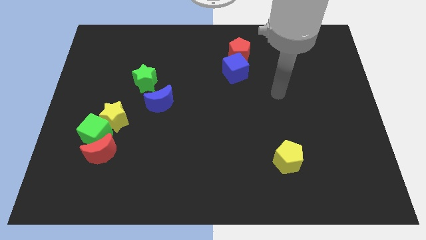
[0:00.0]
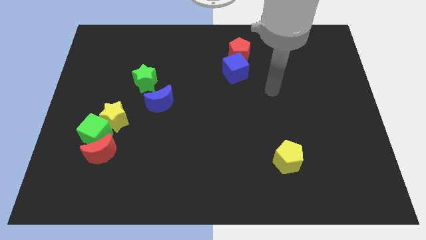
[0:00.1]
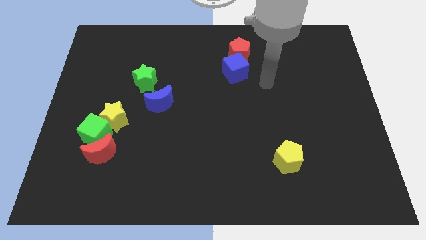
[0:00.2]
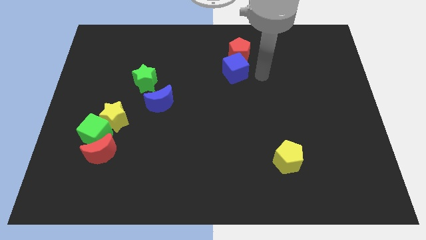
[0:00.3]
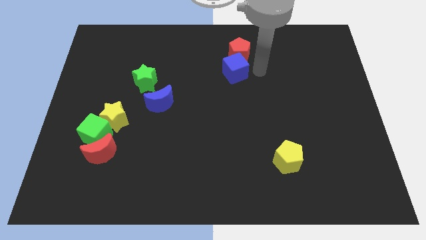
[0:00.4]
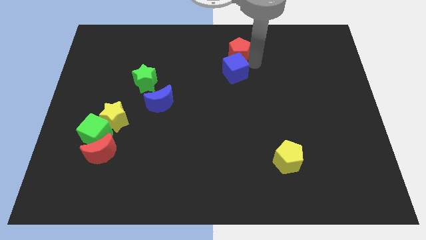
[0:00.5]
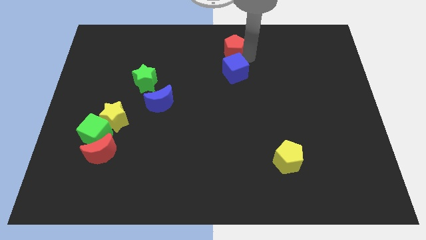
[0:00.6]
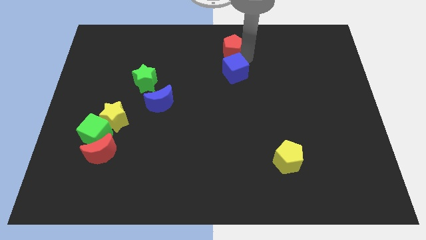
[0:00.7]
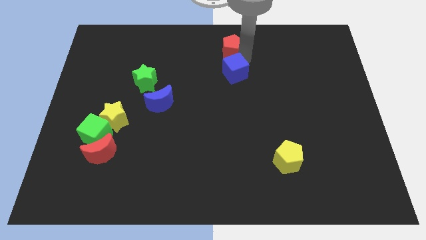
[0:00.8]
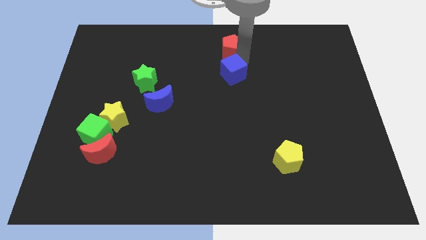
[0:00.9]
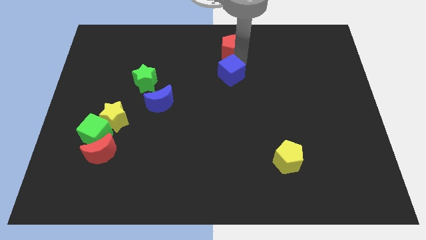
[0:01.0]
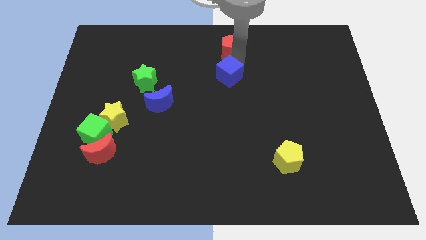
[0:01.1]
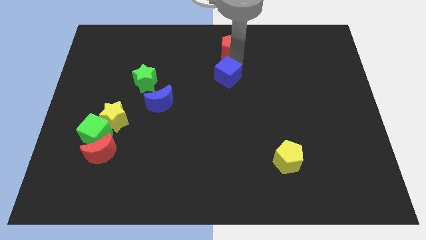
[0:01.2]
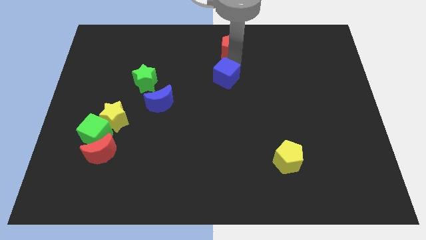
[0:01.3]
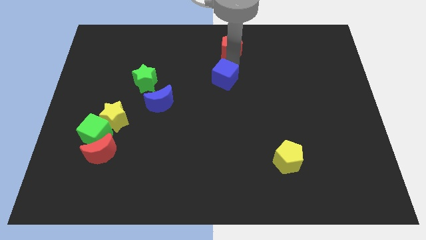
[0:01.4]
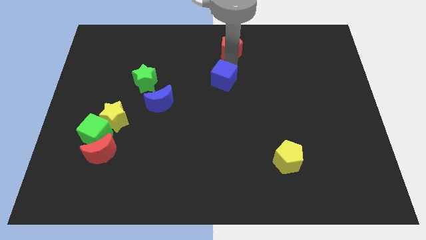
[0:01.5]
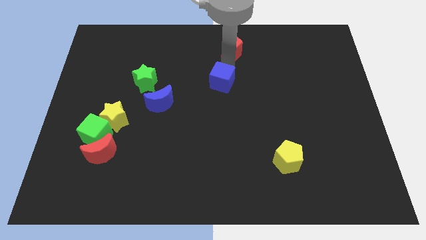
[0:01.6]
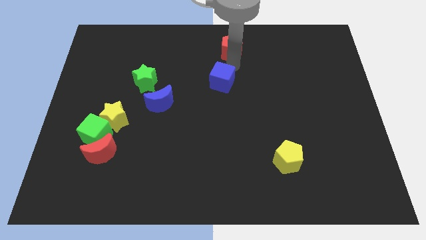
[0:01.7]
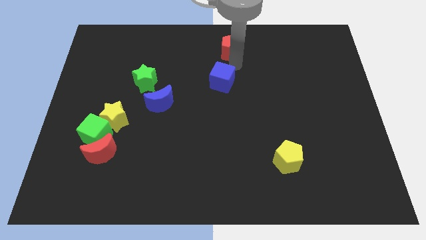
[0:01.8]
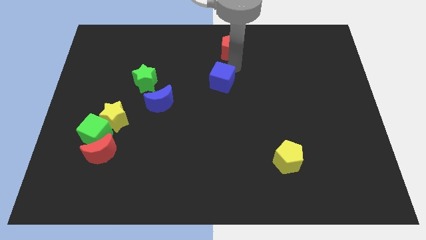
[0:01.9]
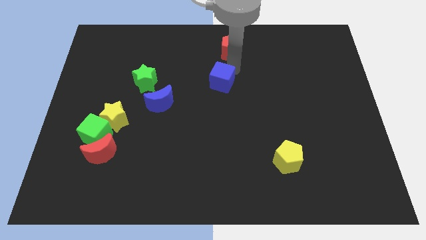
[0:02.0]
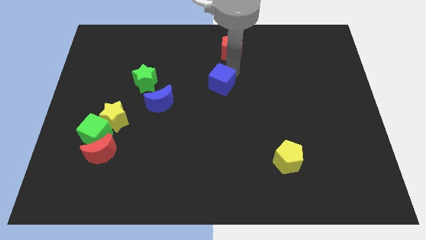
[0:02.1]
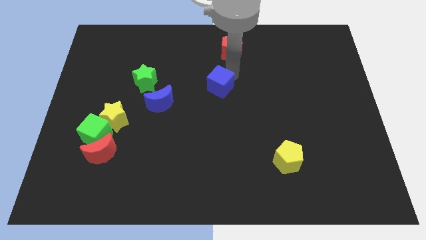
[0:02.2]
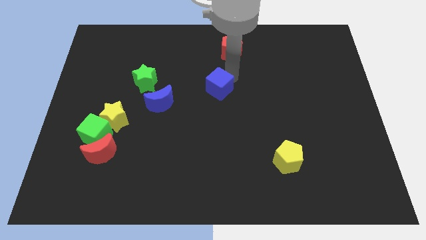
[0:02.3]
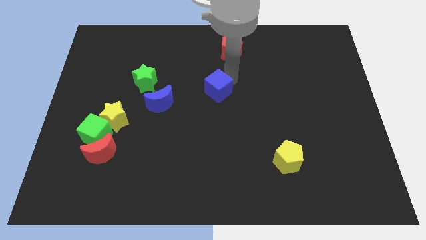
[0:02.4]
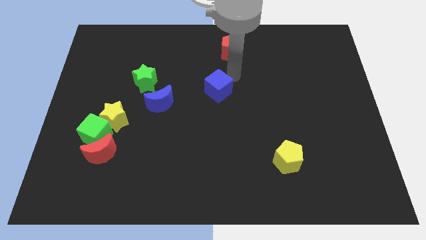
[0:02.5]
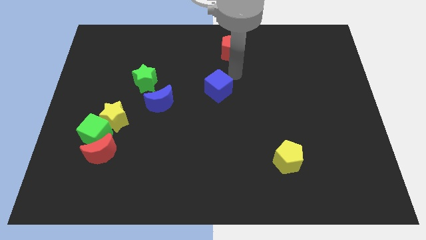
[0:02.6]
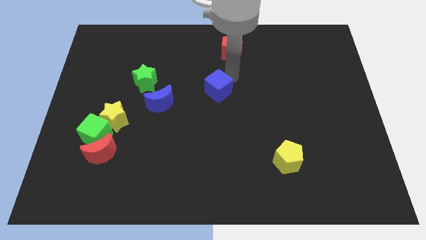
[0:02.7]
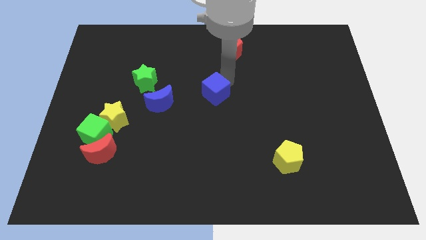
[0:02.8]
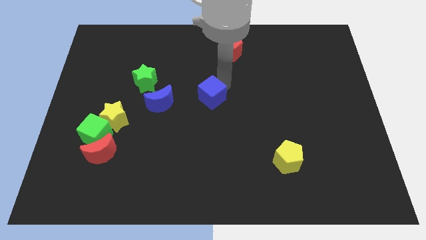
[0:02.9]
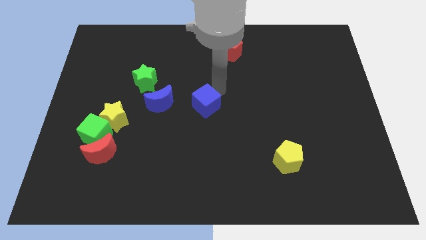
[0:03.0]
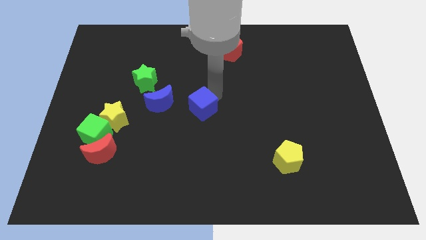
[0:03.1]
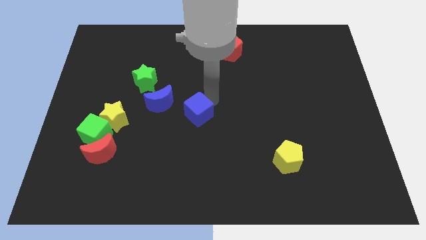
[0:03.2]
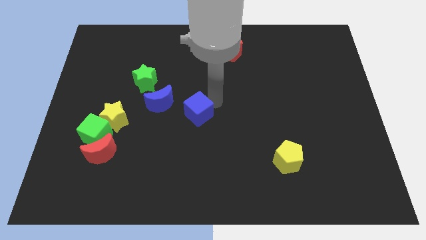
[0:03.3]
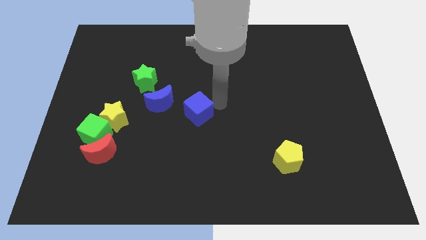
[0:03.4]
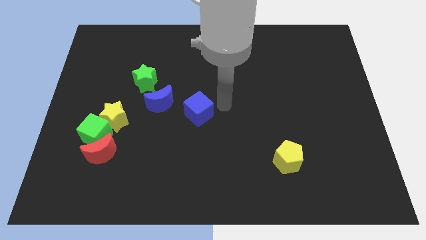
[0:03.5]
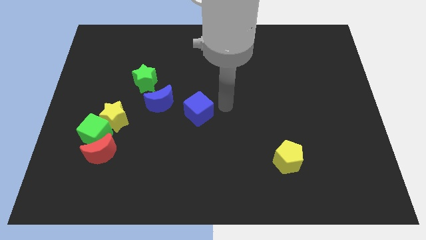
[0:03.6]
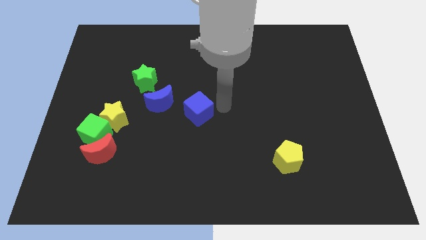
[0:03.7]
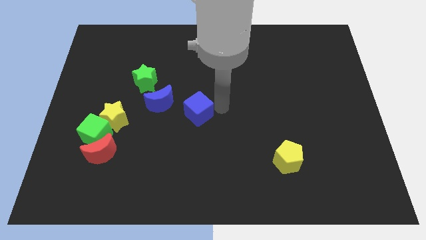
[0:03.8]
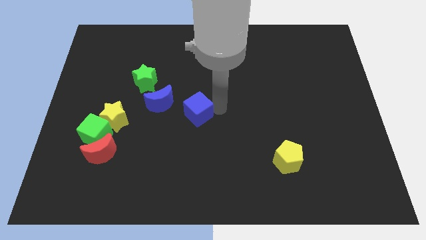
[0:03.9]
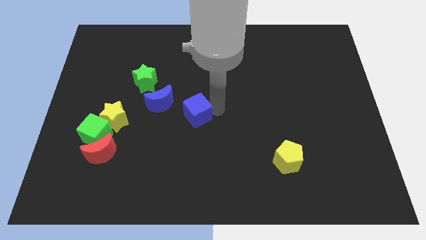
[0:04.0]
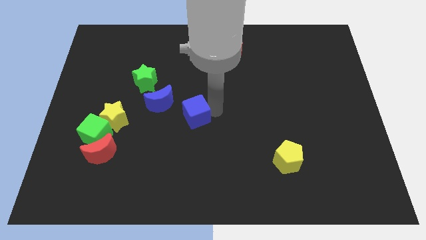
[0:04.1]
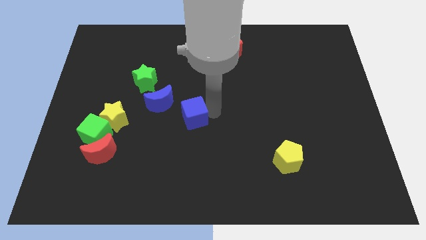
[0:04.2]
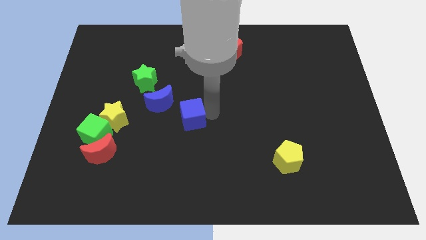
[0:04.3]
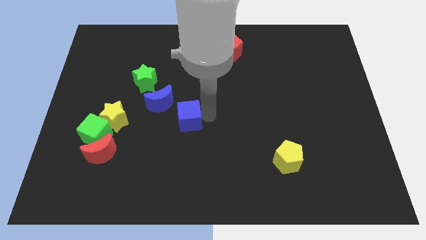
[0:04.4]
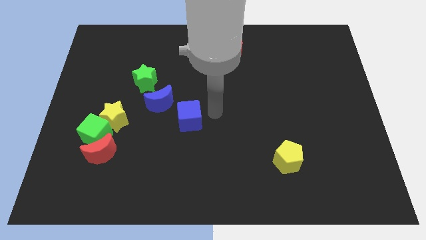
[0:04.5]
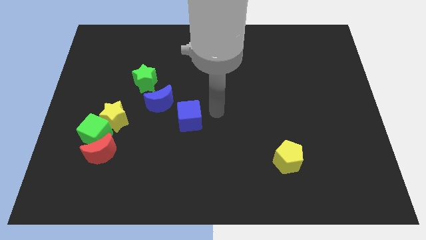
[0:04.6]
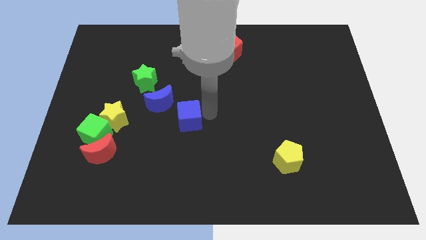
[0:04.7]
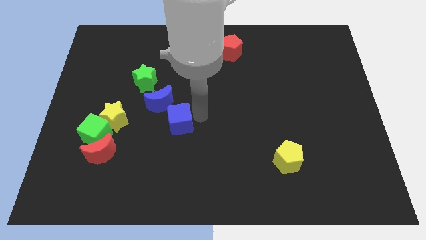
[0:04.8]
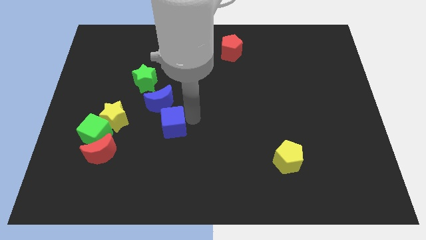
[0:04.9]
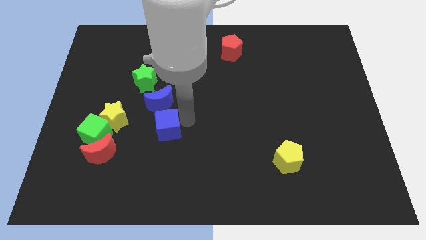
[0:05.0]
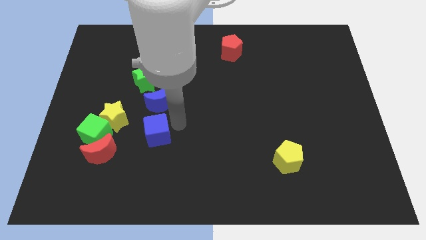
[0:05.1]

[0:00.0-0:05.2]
push the blue cube to the bottom right of the yellow star

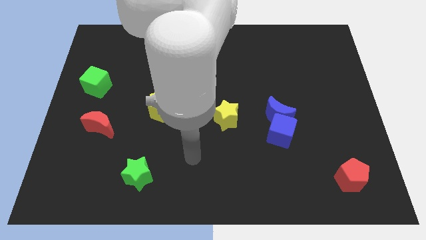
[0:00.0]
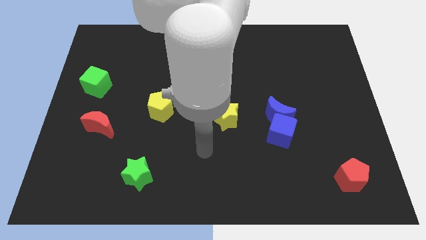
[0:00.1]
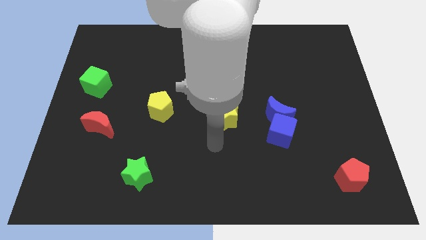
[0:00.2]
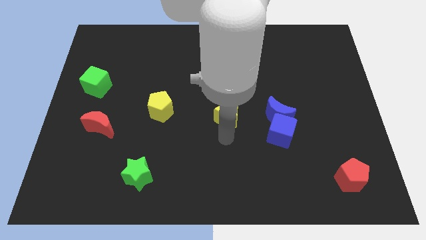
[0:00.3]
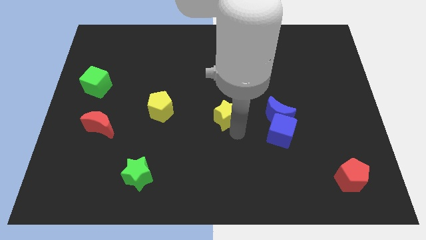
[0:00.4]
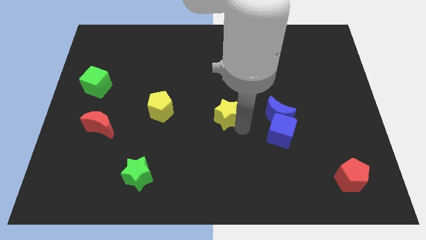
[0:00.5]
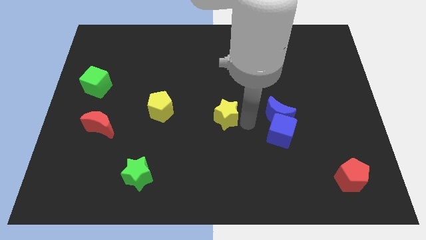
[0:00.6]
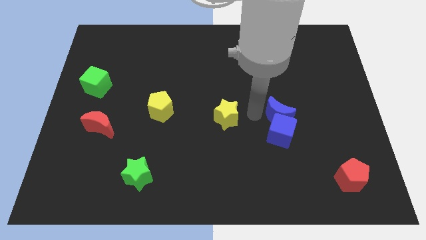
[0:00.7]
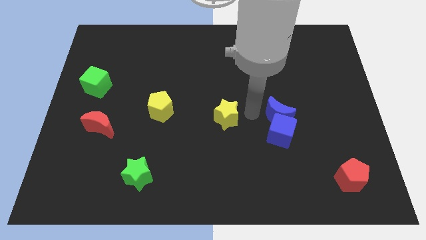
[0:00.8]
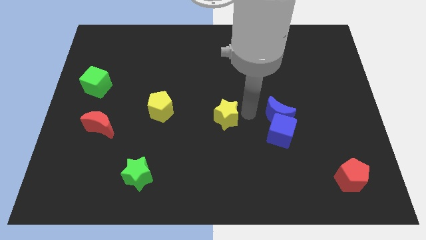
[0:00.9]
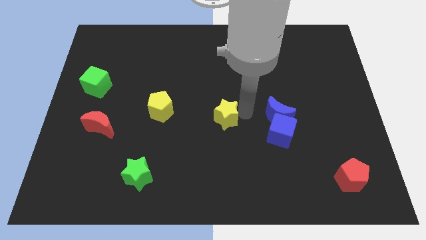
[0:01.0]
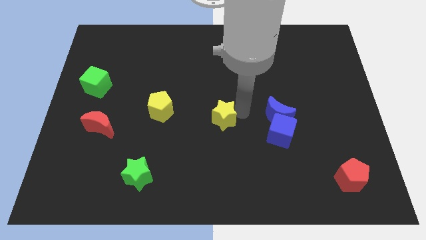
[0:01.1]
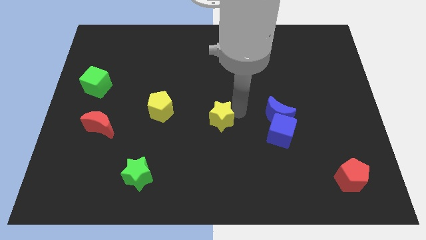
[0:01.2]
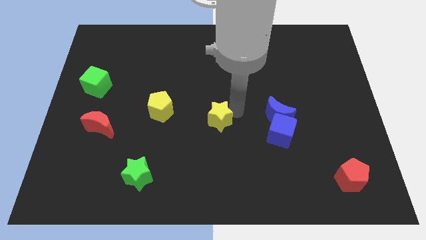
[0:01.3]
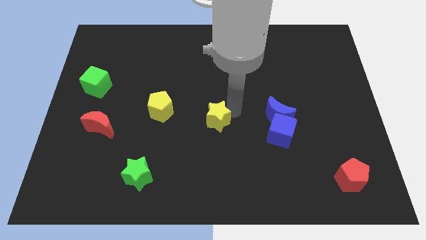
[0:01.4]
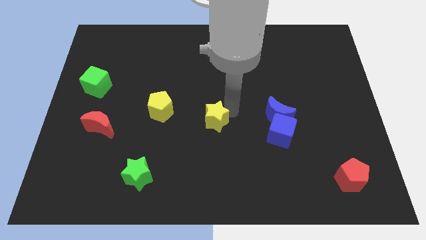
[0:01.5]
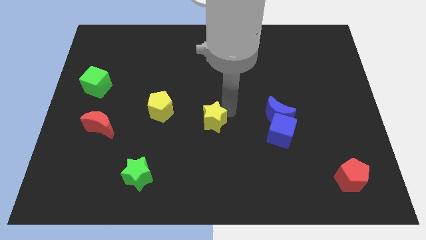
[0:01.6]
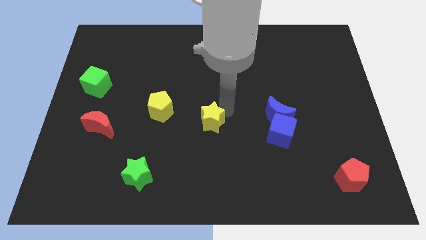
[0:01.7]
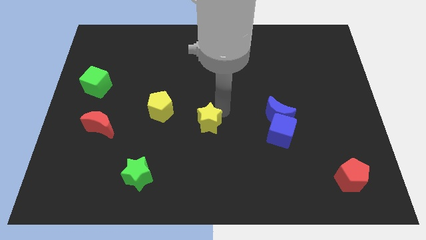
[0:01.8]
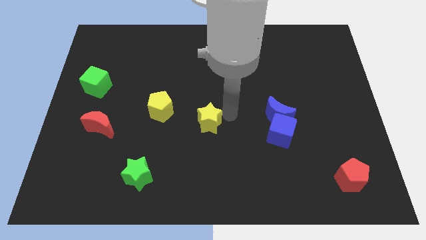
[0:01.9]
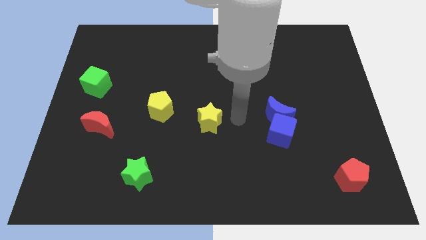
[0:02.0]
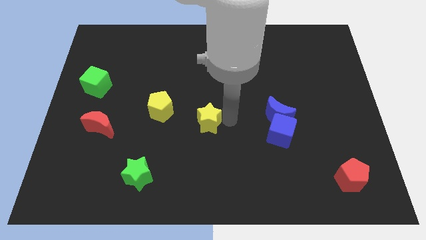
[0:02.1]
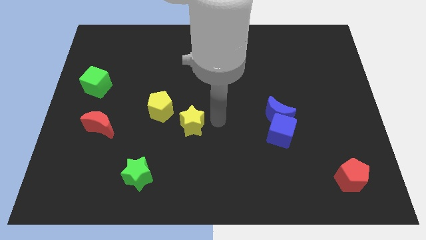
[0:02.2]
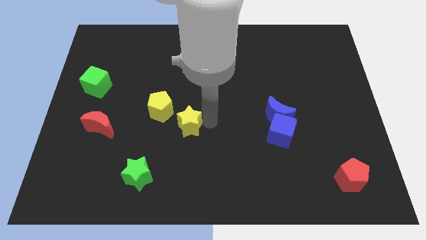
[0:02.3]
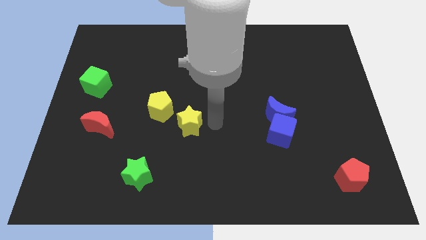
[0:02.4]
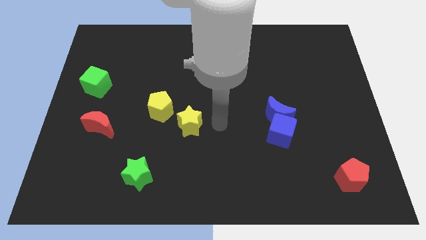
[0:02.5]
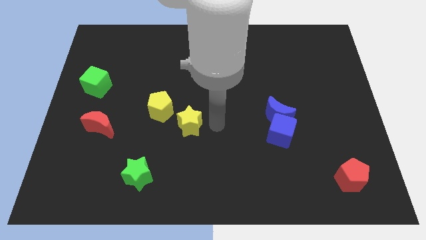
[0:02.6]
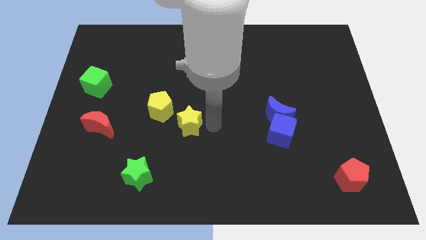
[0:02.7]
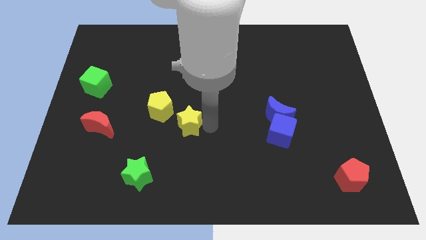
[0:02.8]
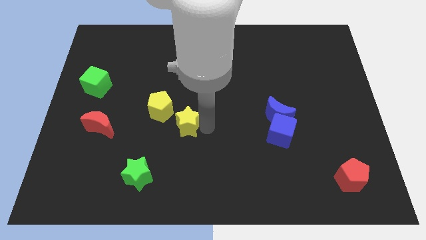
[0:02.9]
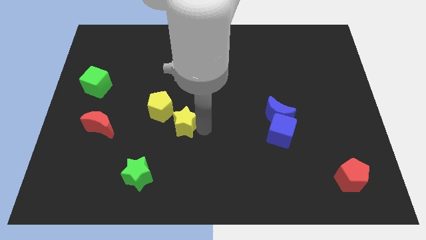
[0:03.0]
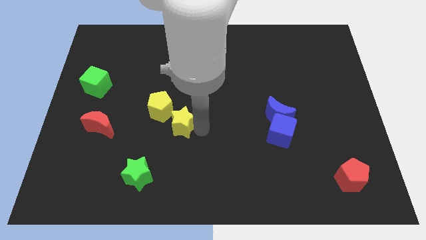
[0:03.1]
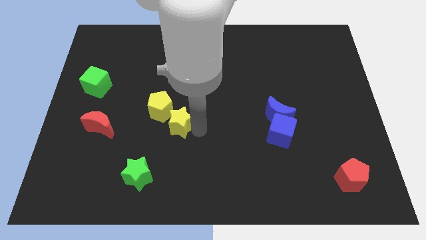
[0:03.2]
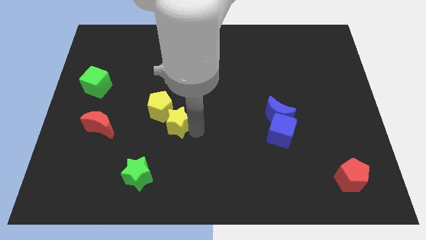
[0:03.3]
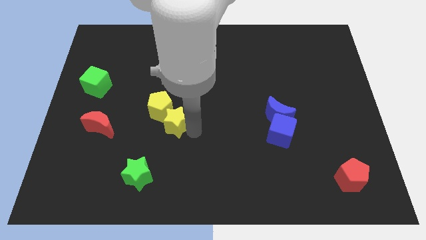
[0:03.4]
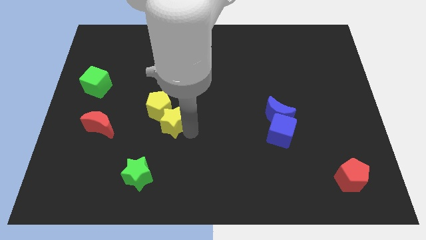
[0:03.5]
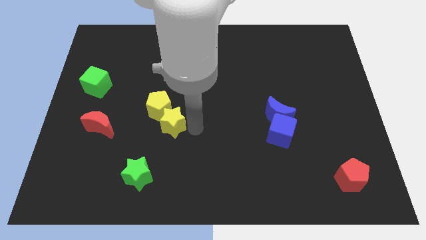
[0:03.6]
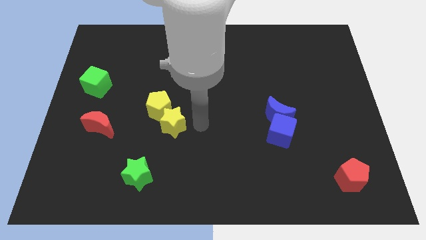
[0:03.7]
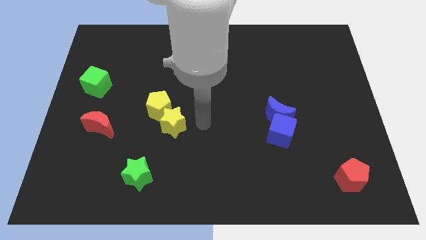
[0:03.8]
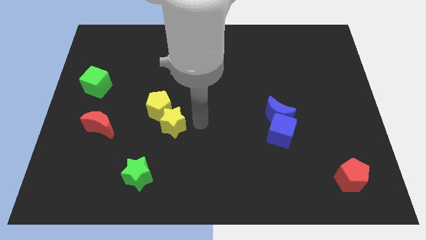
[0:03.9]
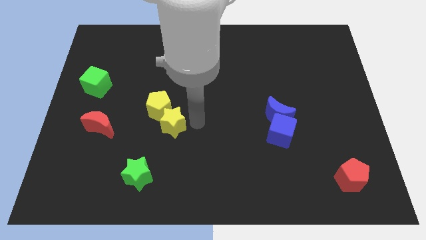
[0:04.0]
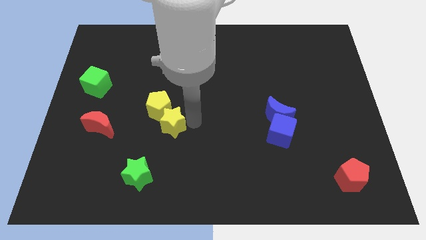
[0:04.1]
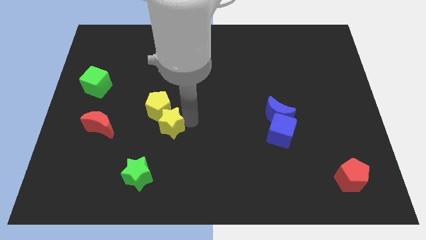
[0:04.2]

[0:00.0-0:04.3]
move the yellow star to the right of the red moon
